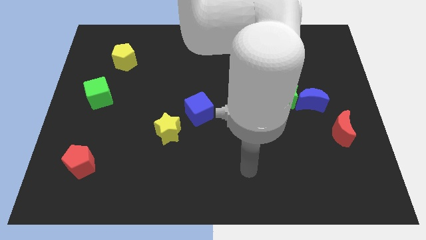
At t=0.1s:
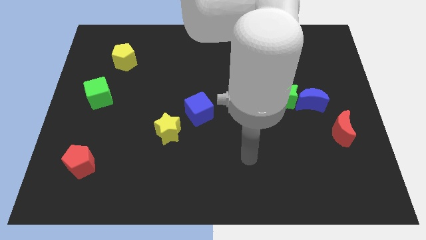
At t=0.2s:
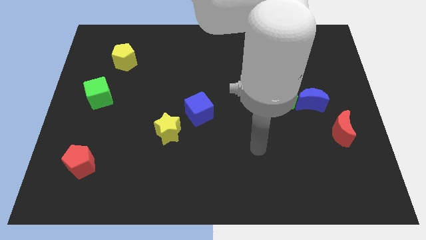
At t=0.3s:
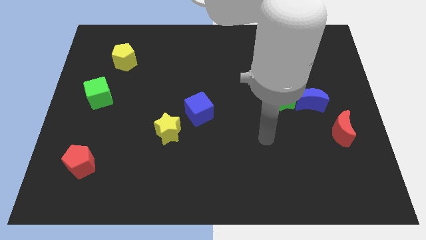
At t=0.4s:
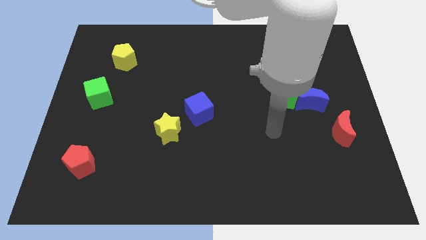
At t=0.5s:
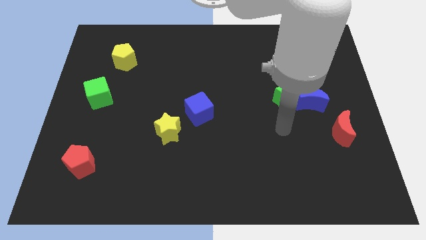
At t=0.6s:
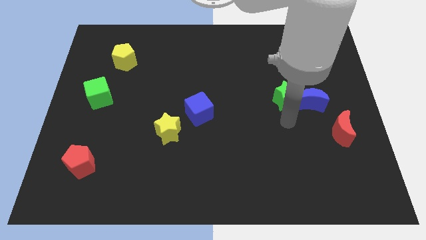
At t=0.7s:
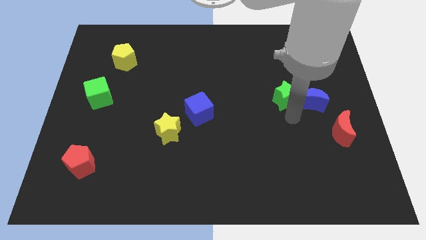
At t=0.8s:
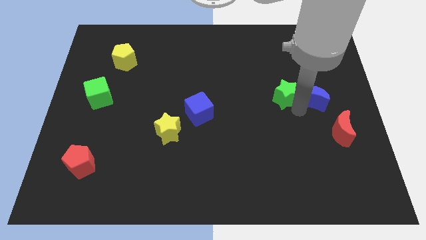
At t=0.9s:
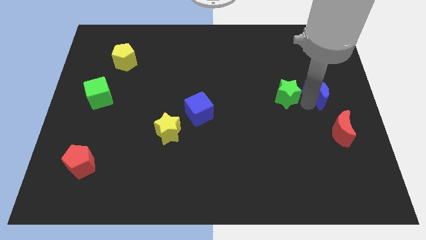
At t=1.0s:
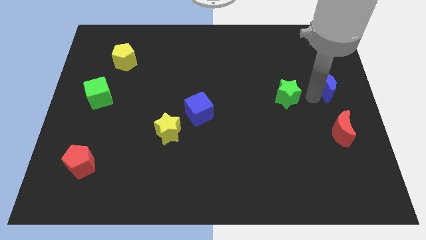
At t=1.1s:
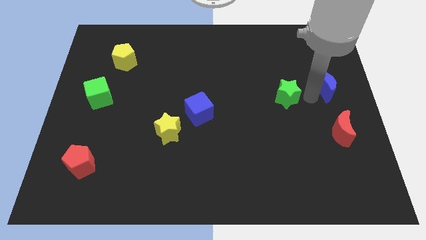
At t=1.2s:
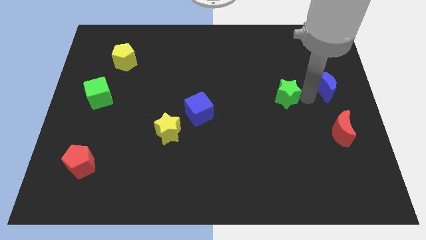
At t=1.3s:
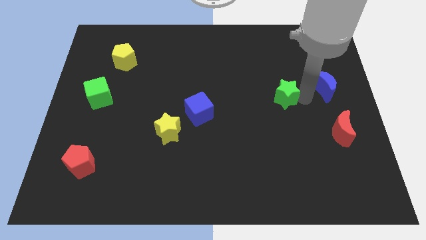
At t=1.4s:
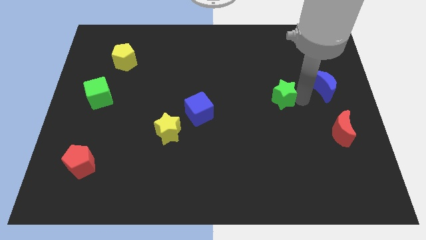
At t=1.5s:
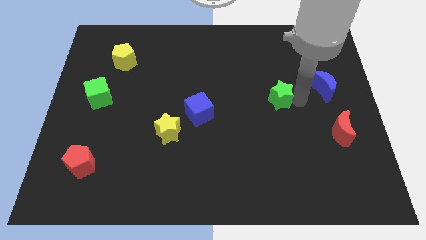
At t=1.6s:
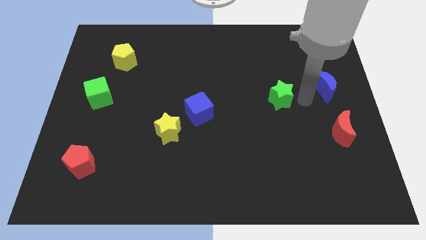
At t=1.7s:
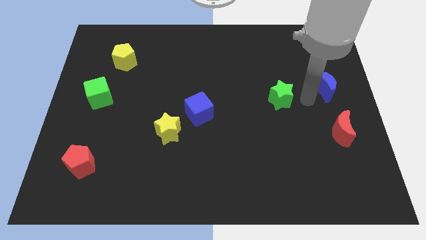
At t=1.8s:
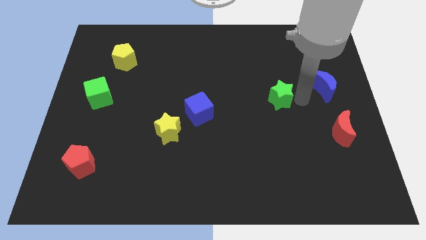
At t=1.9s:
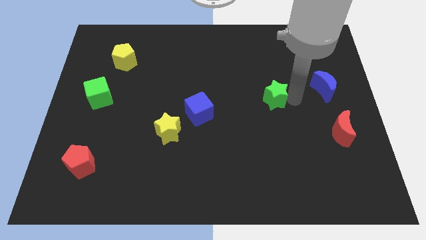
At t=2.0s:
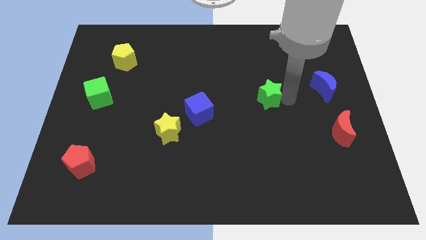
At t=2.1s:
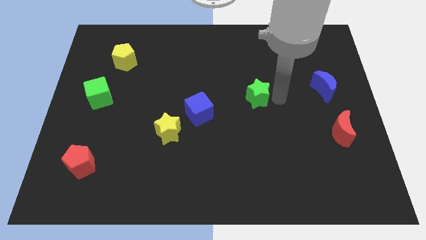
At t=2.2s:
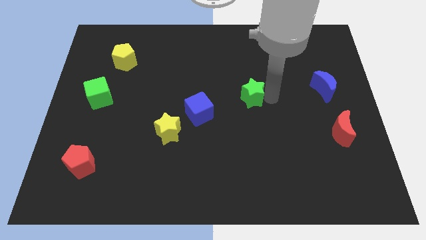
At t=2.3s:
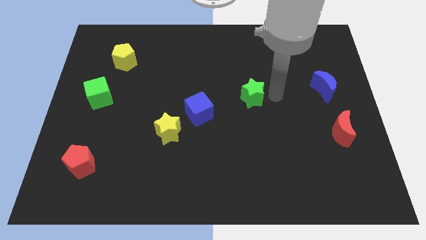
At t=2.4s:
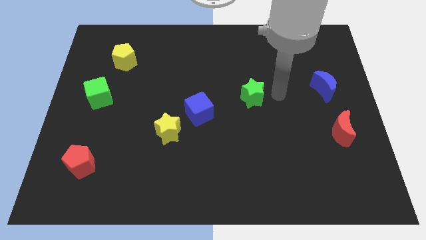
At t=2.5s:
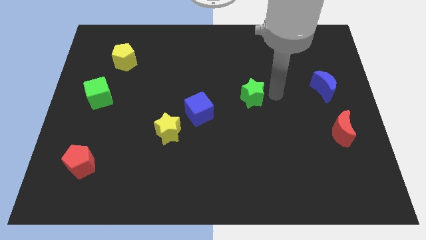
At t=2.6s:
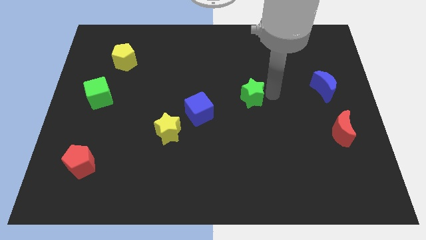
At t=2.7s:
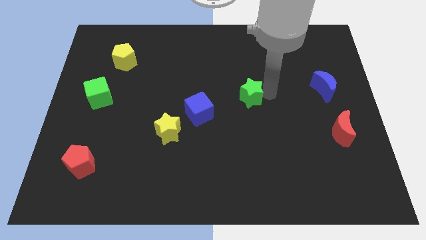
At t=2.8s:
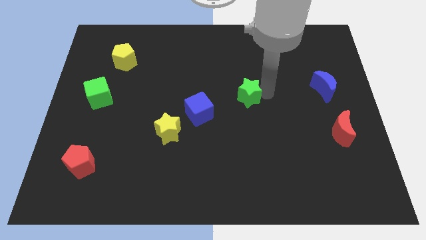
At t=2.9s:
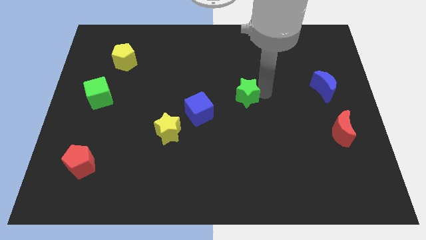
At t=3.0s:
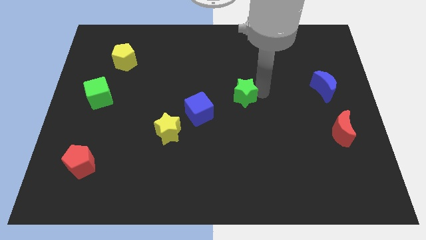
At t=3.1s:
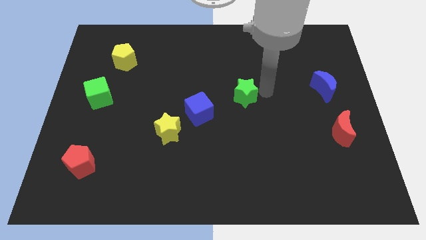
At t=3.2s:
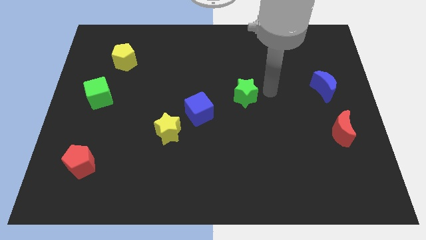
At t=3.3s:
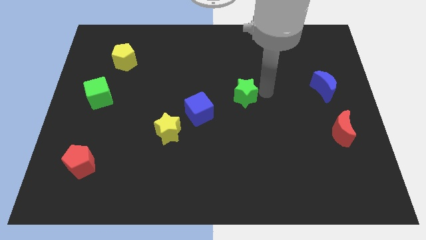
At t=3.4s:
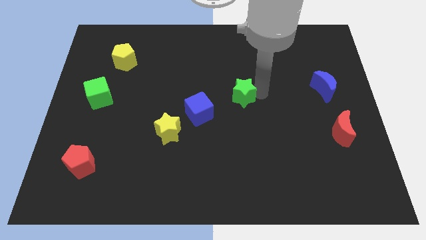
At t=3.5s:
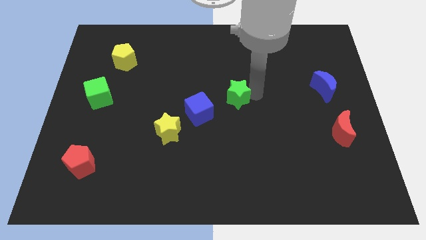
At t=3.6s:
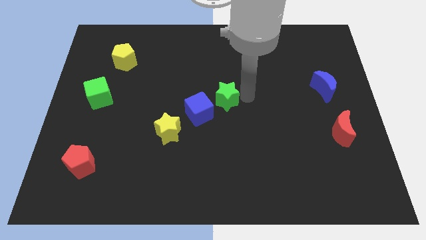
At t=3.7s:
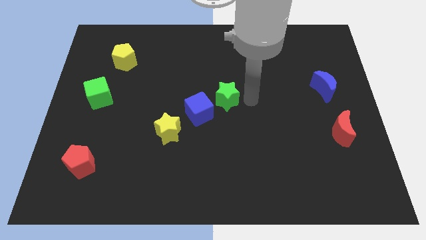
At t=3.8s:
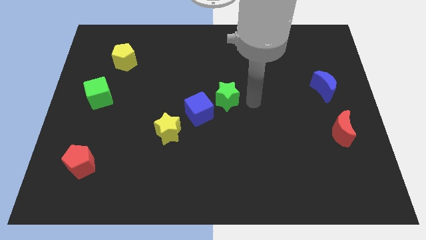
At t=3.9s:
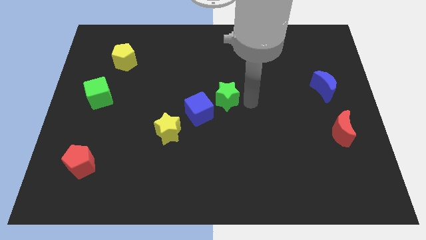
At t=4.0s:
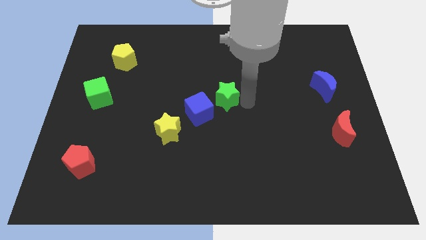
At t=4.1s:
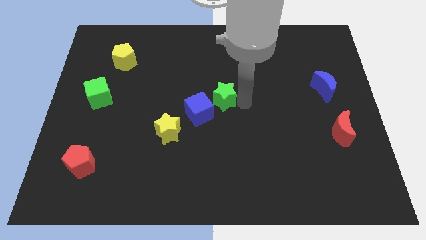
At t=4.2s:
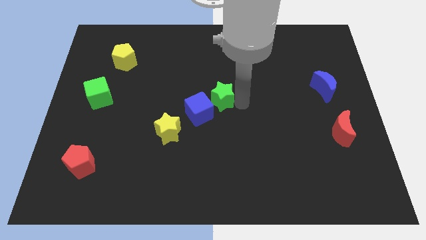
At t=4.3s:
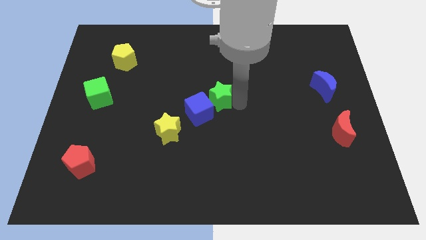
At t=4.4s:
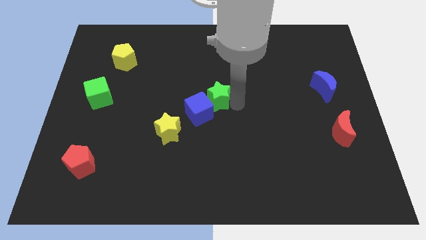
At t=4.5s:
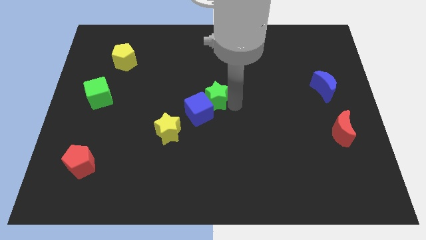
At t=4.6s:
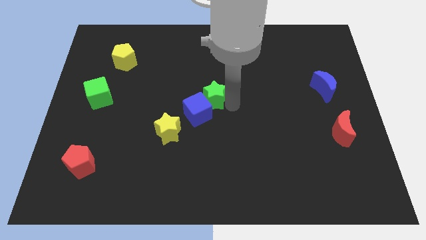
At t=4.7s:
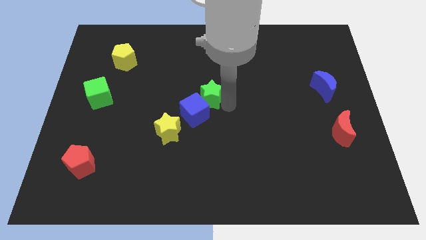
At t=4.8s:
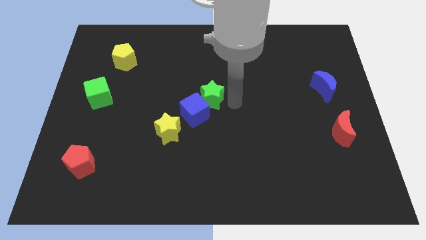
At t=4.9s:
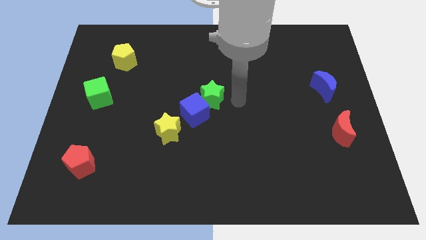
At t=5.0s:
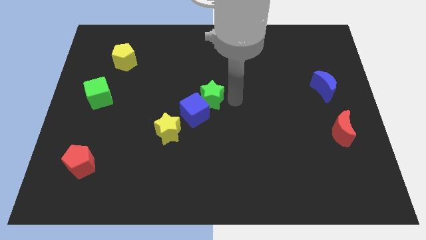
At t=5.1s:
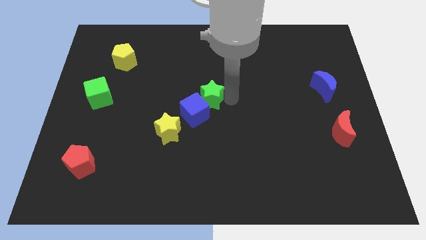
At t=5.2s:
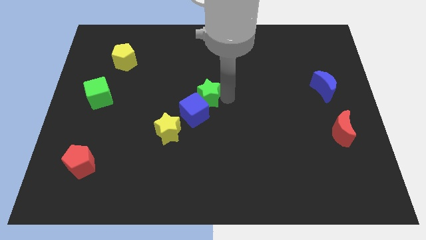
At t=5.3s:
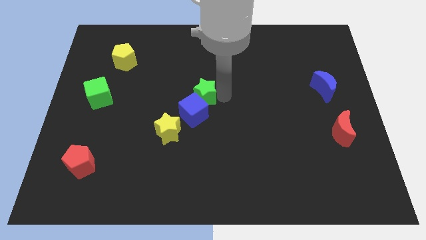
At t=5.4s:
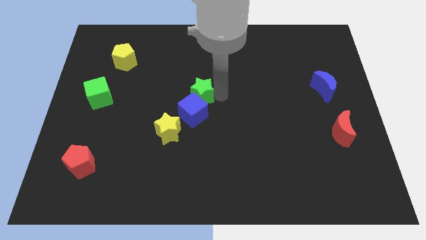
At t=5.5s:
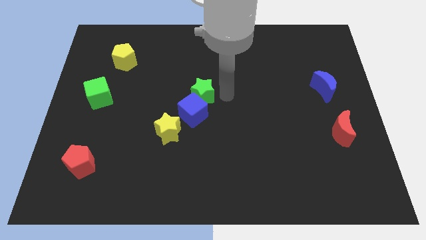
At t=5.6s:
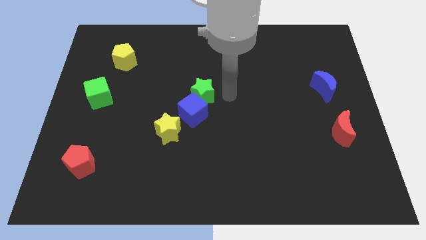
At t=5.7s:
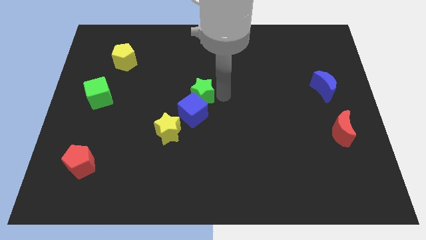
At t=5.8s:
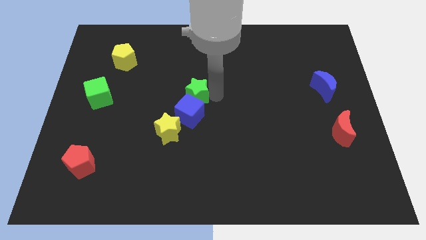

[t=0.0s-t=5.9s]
slide the green star to the top left of the blue cube

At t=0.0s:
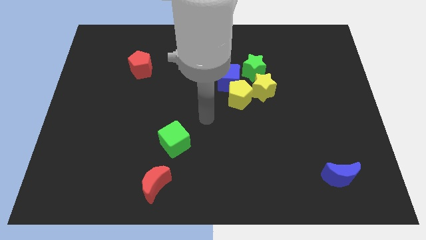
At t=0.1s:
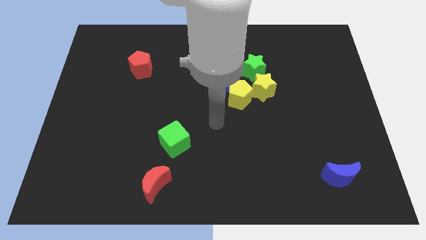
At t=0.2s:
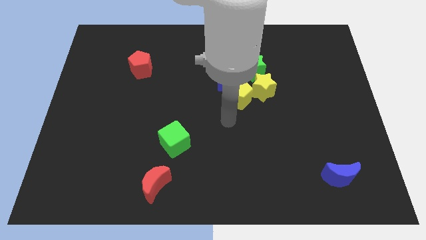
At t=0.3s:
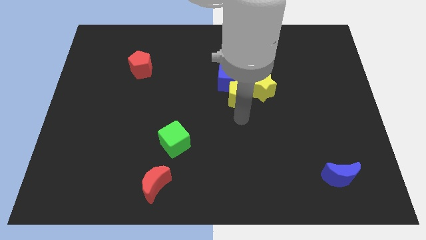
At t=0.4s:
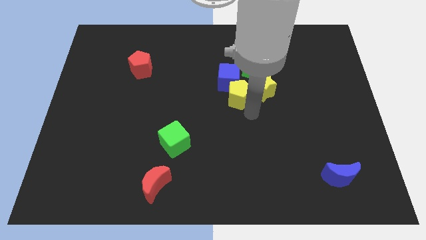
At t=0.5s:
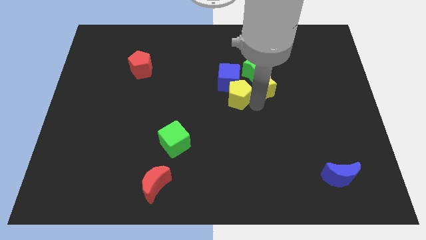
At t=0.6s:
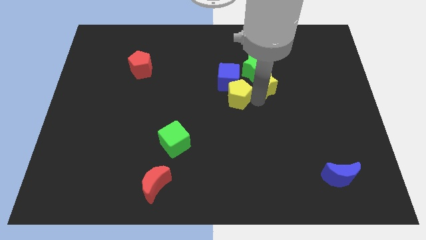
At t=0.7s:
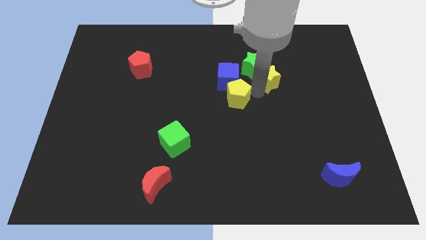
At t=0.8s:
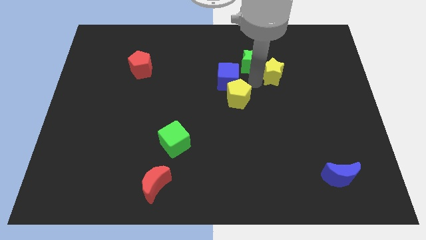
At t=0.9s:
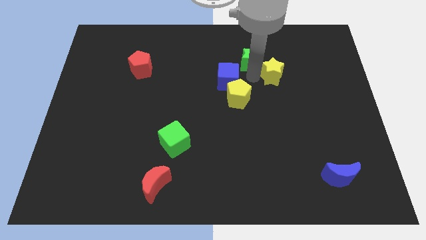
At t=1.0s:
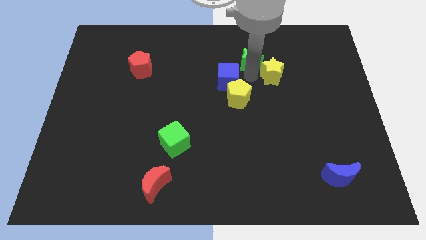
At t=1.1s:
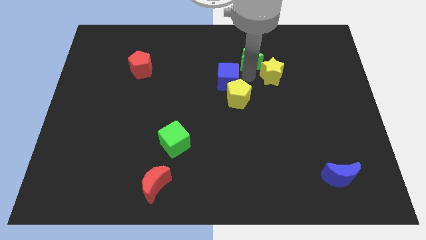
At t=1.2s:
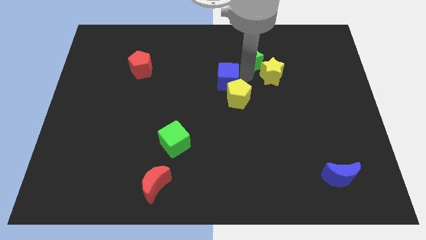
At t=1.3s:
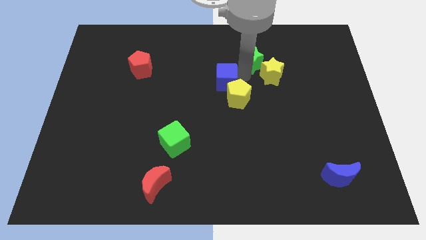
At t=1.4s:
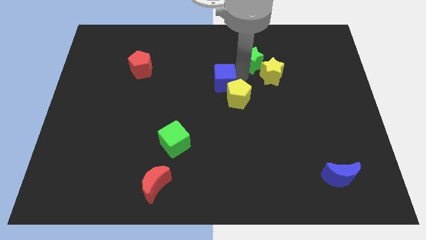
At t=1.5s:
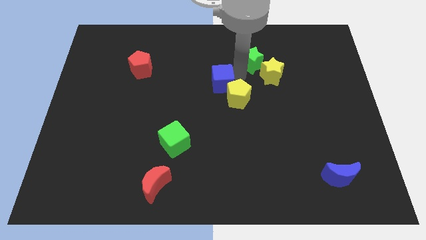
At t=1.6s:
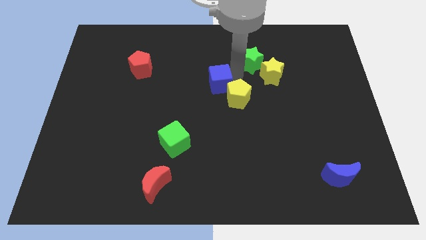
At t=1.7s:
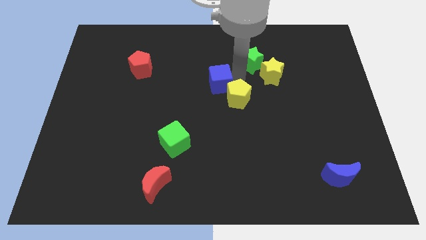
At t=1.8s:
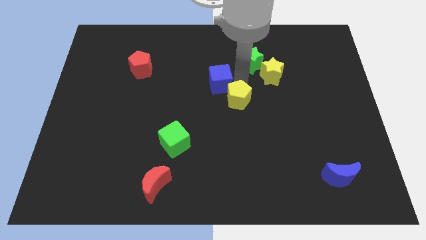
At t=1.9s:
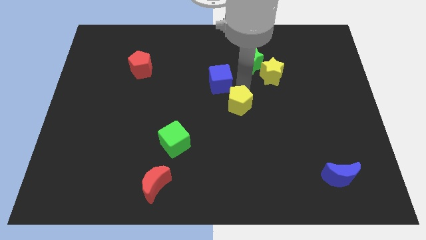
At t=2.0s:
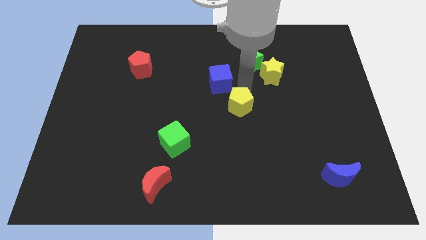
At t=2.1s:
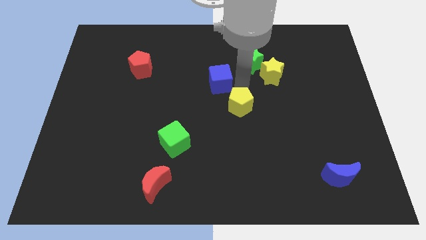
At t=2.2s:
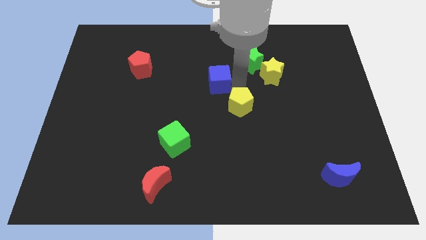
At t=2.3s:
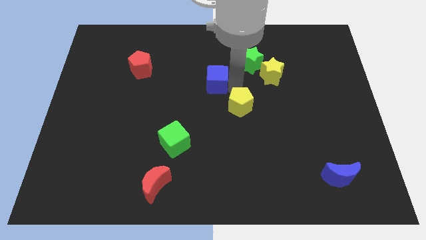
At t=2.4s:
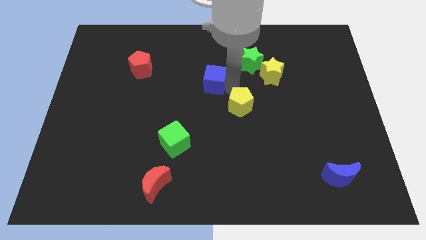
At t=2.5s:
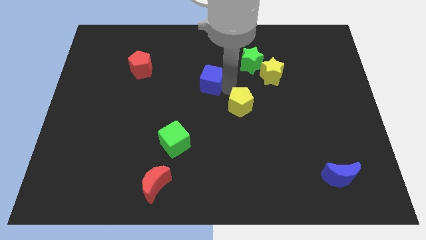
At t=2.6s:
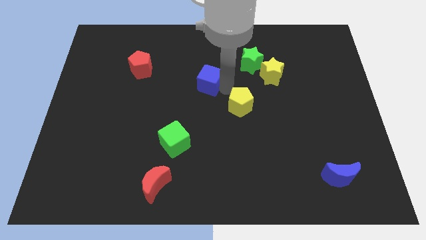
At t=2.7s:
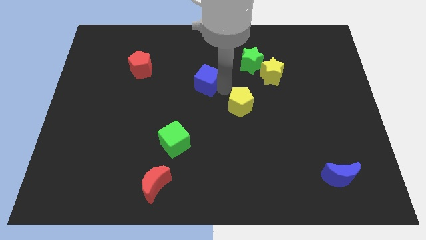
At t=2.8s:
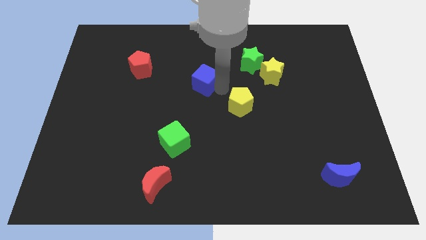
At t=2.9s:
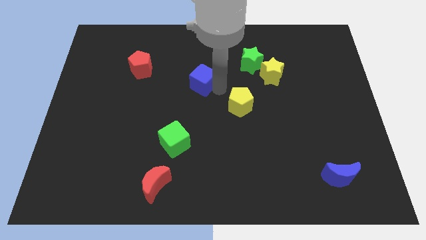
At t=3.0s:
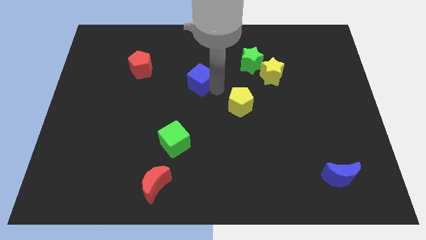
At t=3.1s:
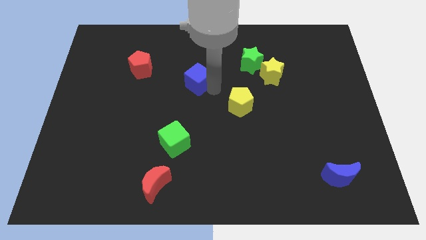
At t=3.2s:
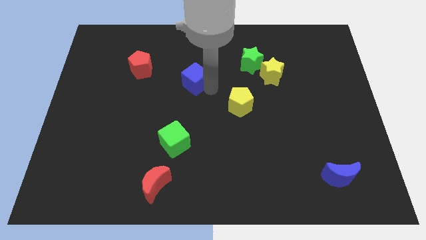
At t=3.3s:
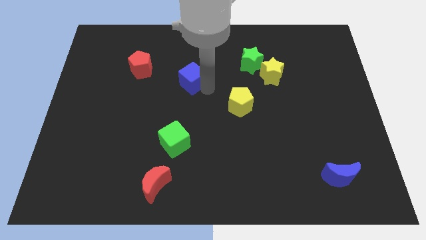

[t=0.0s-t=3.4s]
move the blue cube to the right of the red pentagon
